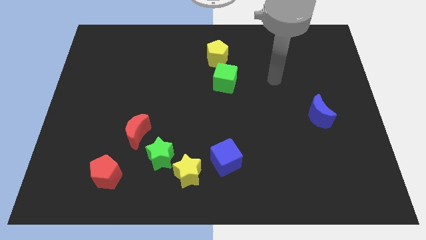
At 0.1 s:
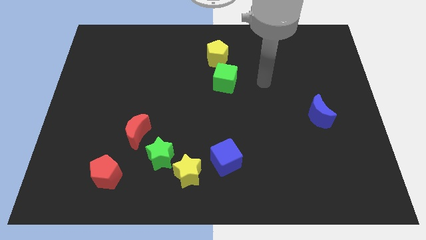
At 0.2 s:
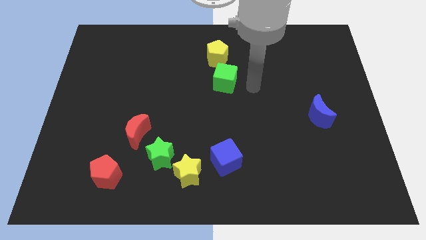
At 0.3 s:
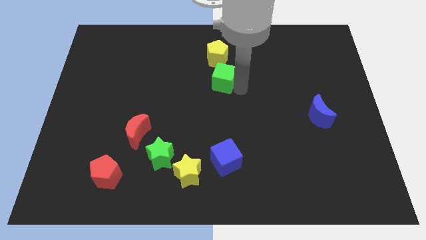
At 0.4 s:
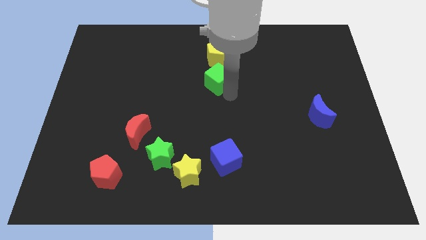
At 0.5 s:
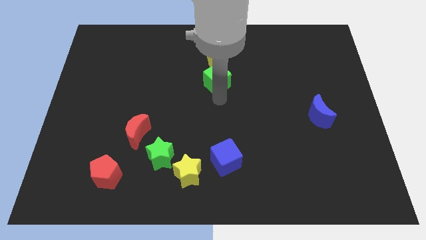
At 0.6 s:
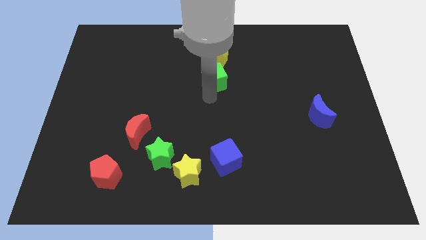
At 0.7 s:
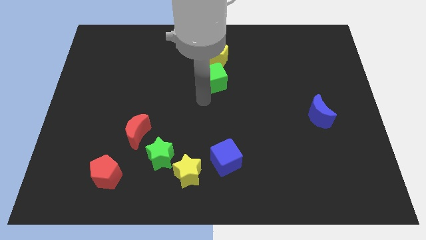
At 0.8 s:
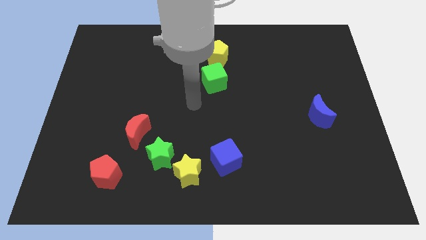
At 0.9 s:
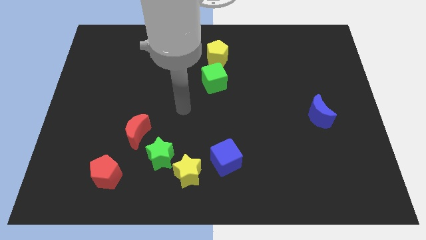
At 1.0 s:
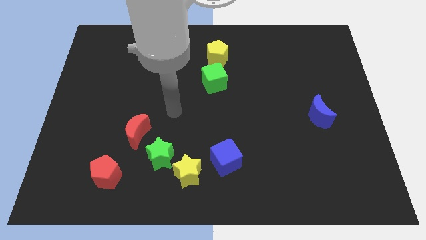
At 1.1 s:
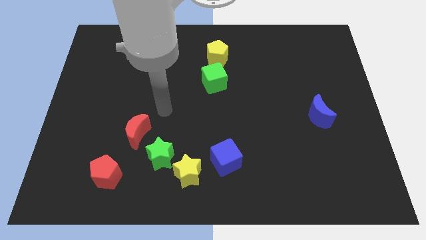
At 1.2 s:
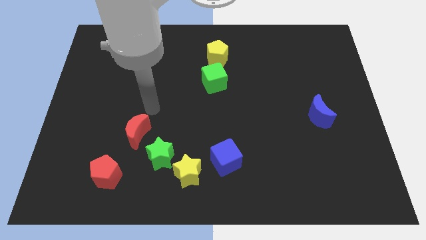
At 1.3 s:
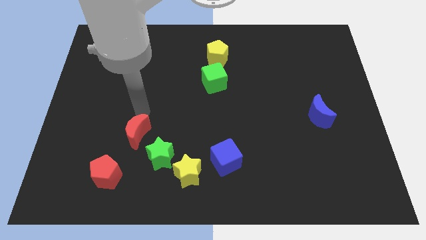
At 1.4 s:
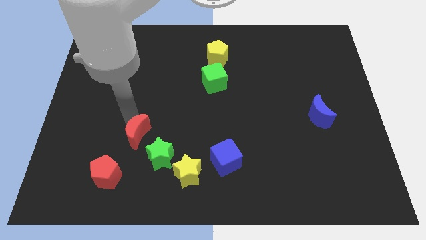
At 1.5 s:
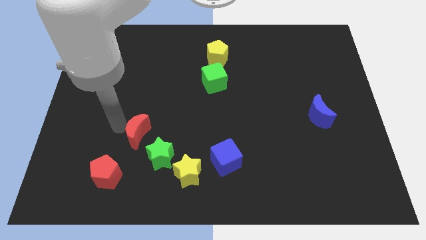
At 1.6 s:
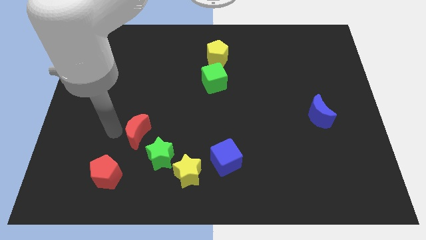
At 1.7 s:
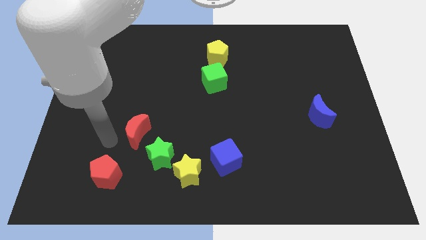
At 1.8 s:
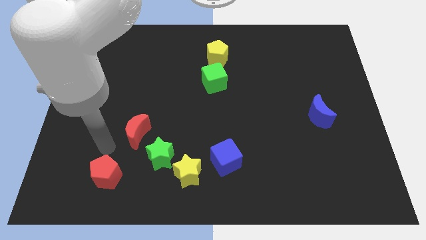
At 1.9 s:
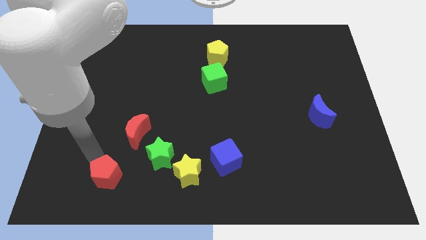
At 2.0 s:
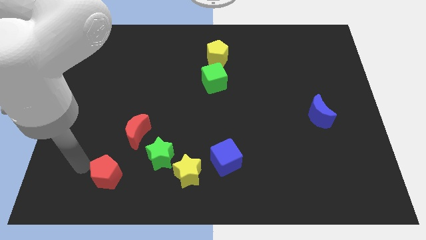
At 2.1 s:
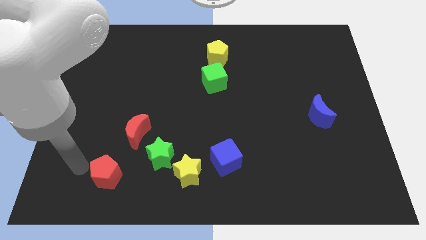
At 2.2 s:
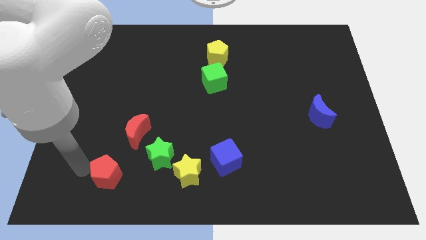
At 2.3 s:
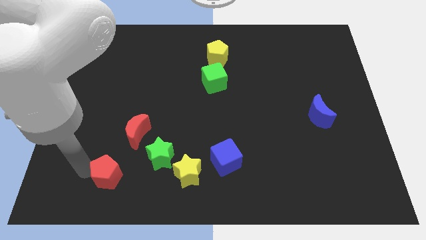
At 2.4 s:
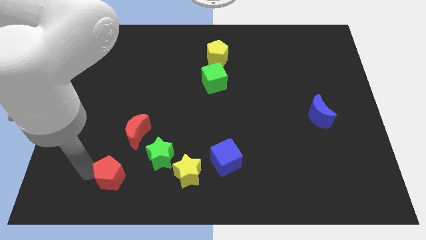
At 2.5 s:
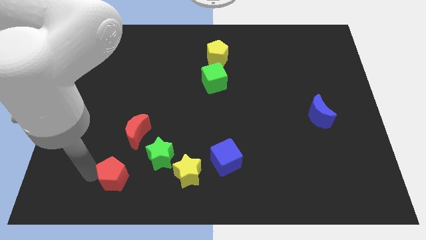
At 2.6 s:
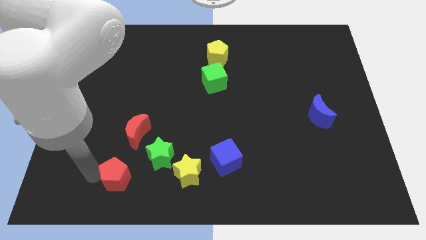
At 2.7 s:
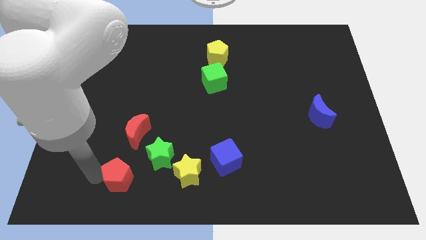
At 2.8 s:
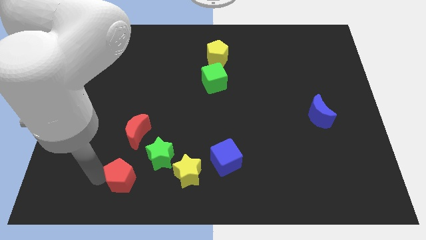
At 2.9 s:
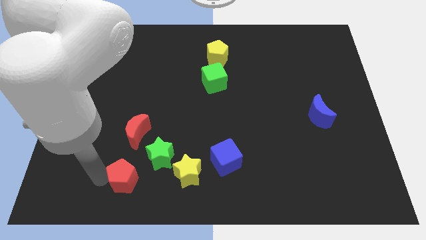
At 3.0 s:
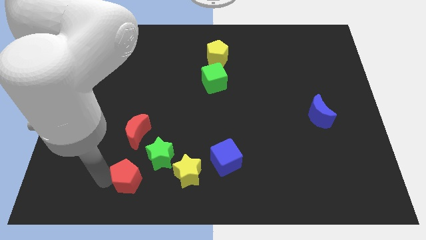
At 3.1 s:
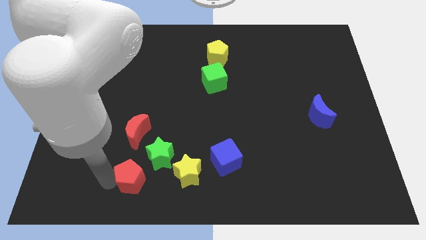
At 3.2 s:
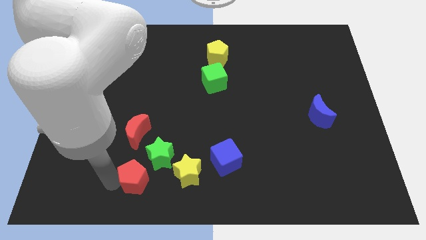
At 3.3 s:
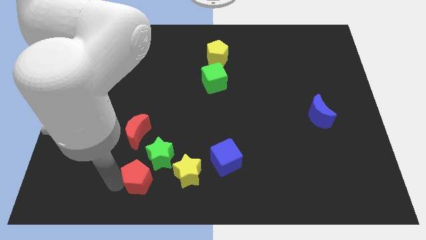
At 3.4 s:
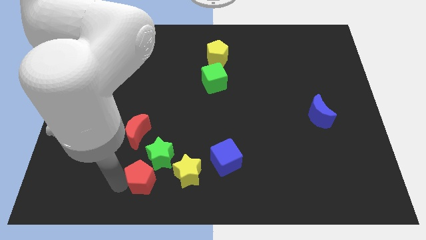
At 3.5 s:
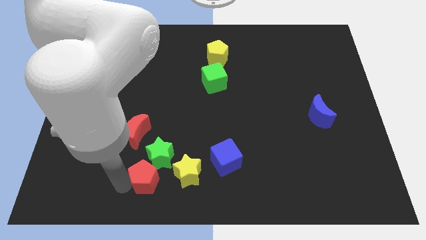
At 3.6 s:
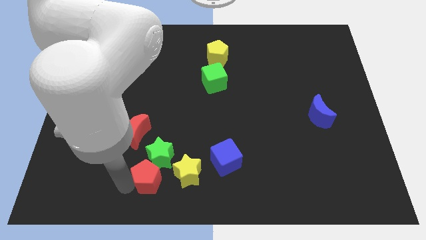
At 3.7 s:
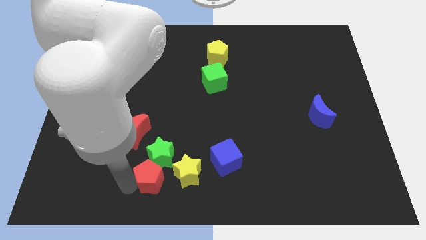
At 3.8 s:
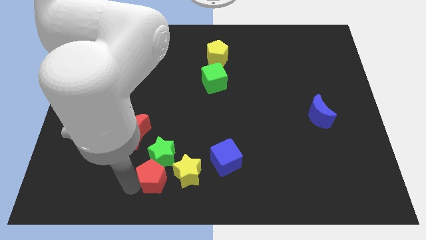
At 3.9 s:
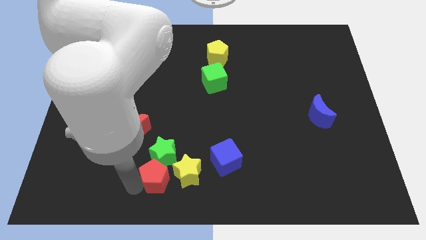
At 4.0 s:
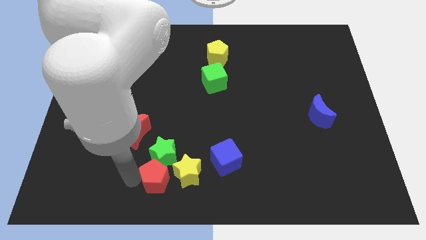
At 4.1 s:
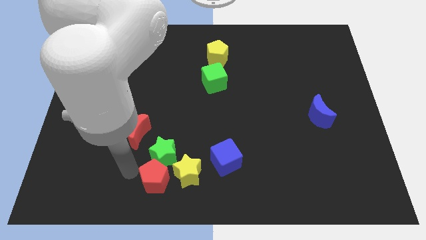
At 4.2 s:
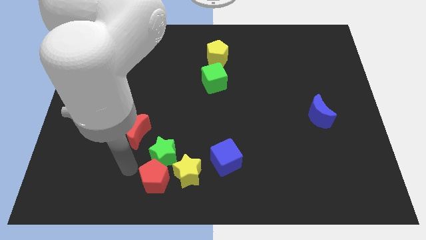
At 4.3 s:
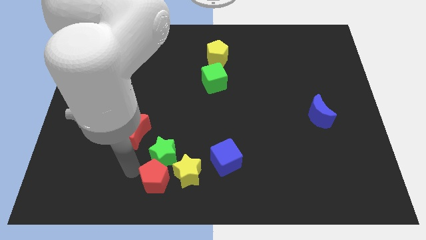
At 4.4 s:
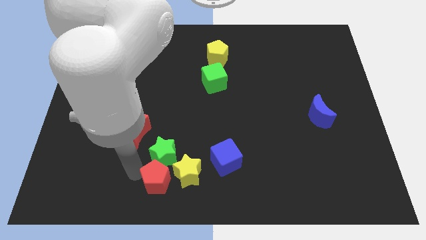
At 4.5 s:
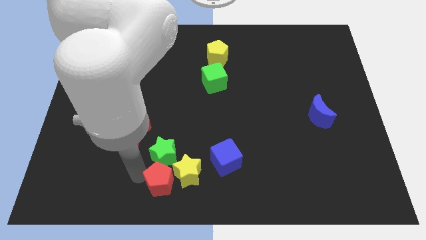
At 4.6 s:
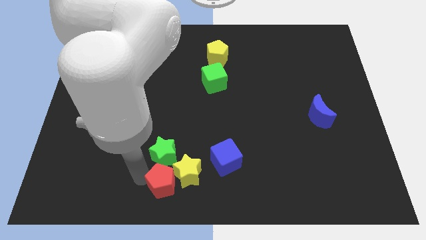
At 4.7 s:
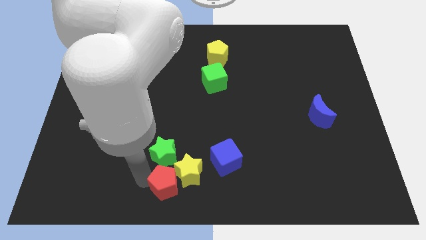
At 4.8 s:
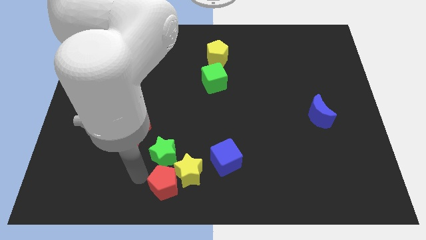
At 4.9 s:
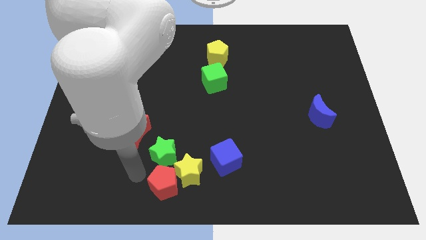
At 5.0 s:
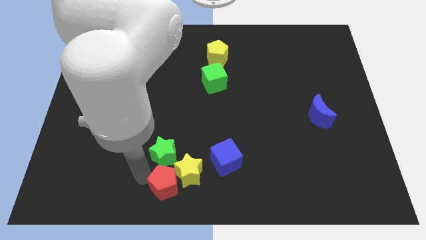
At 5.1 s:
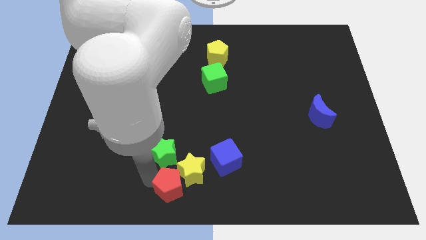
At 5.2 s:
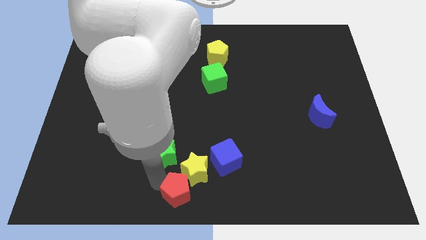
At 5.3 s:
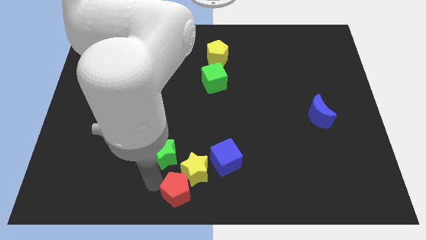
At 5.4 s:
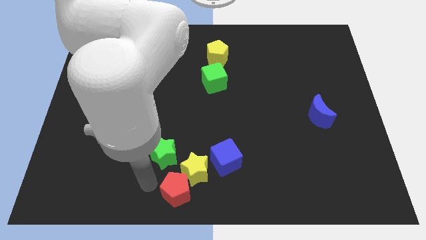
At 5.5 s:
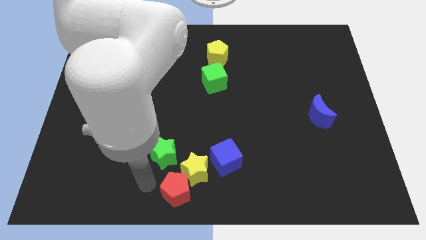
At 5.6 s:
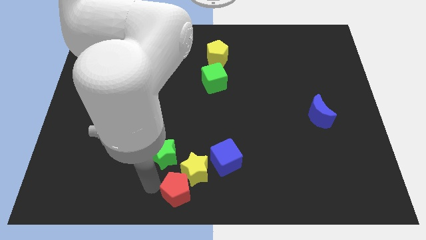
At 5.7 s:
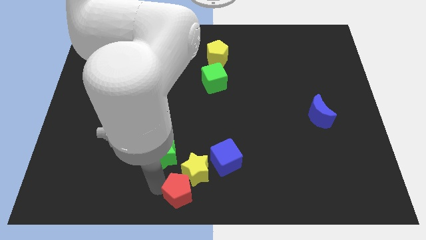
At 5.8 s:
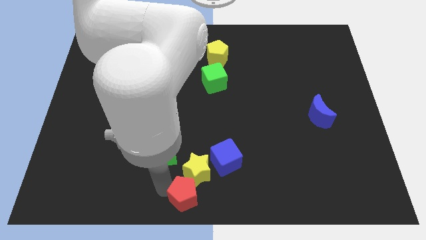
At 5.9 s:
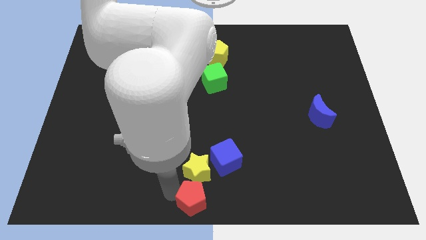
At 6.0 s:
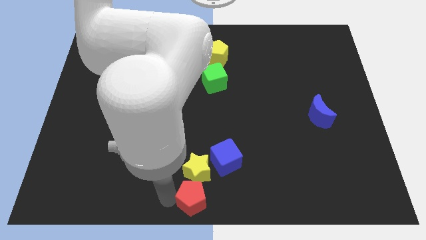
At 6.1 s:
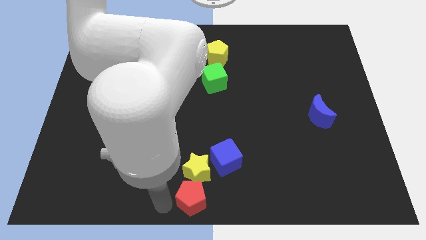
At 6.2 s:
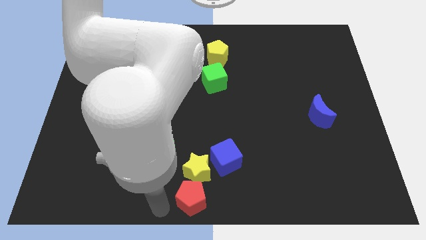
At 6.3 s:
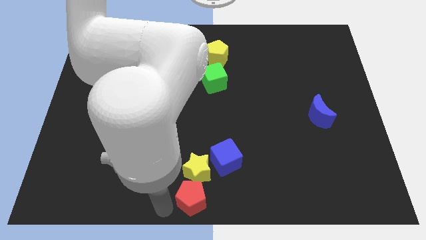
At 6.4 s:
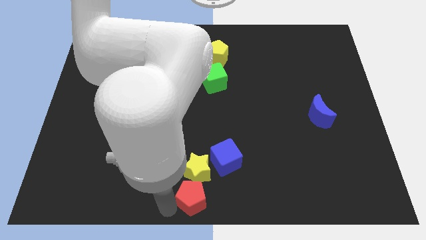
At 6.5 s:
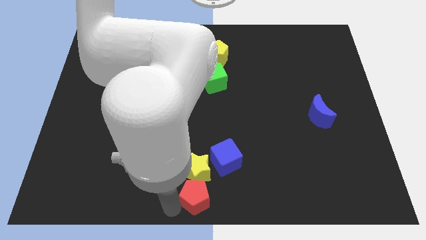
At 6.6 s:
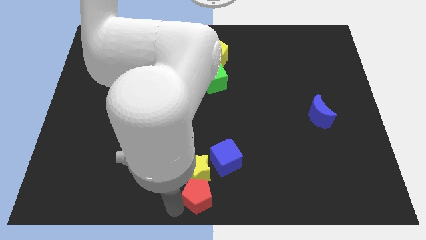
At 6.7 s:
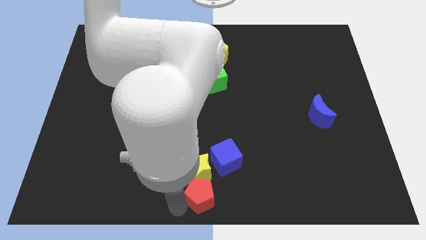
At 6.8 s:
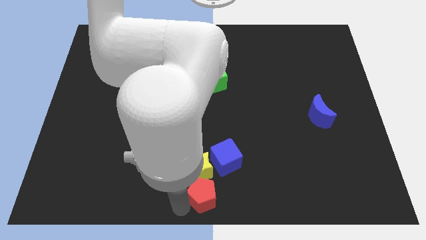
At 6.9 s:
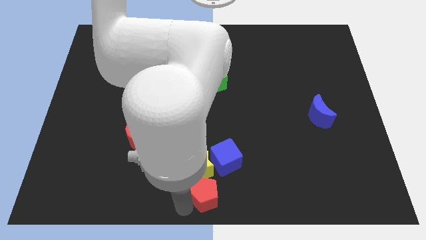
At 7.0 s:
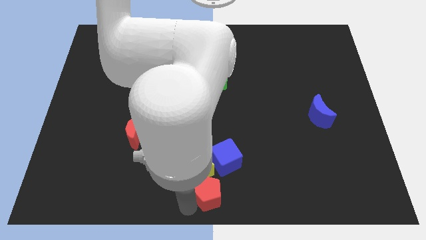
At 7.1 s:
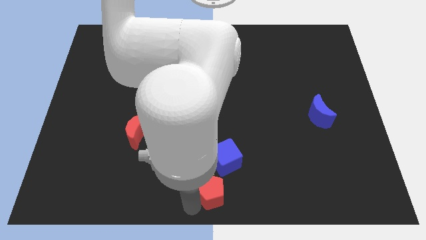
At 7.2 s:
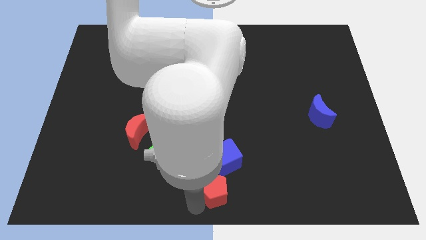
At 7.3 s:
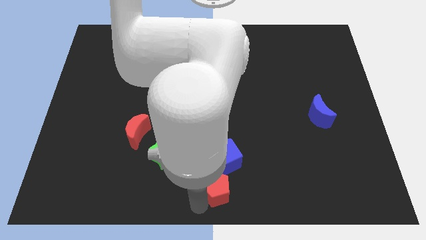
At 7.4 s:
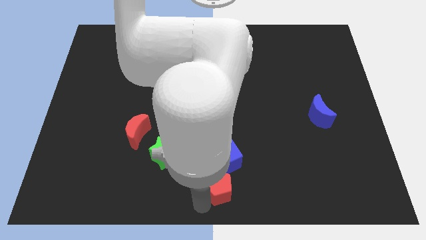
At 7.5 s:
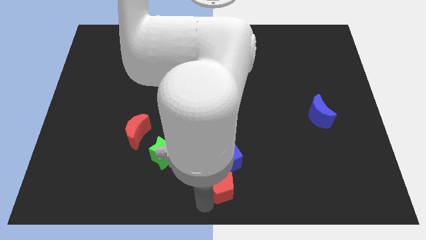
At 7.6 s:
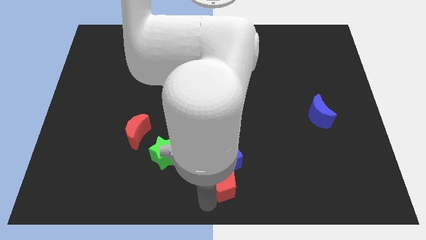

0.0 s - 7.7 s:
push the red pentagon to the bottom right side of the blue cube
